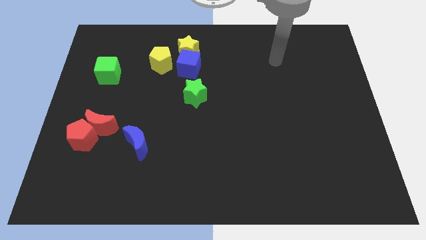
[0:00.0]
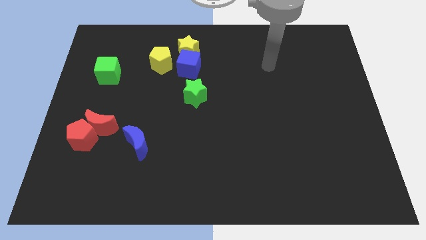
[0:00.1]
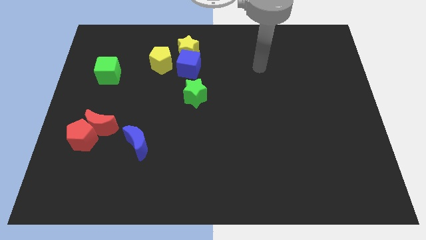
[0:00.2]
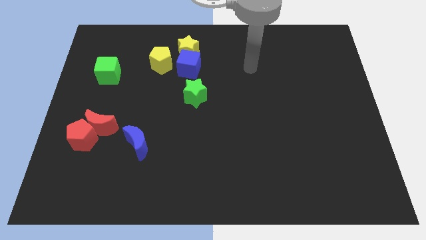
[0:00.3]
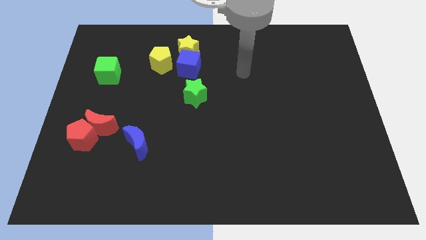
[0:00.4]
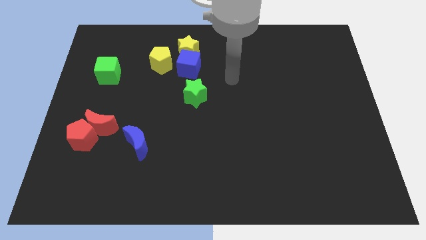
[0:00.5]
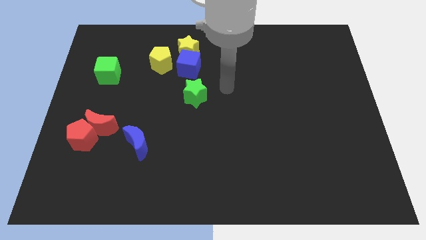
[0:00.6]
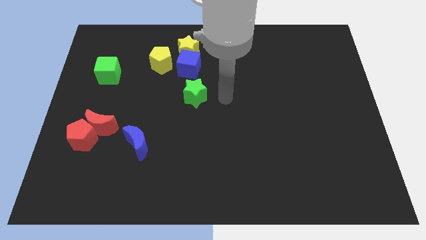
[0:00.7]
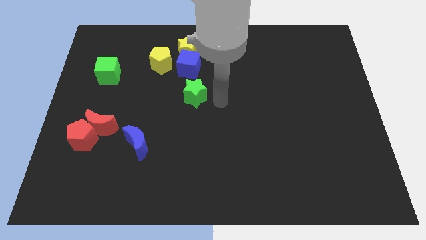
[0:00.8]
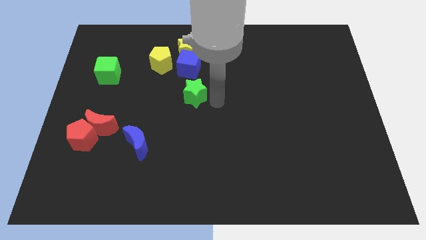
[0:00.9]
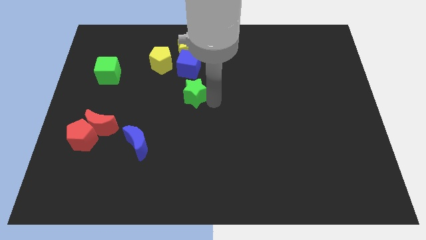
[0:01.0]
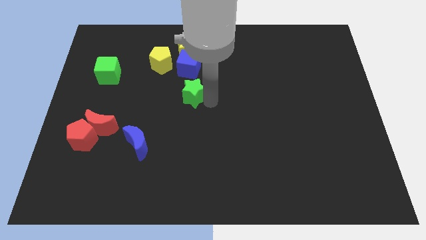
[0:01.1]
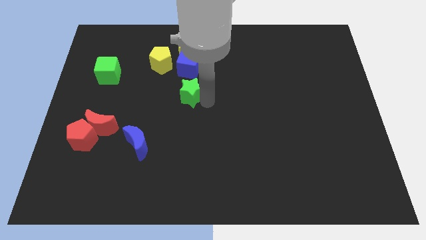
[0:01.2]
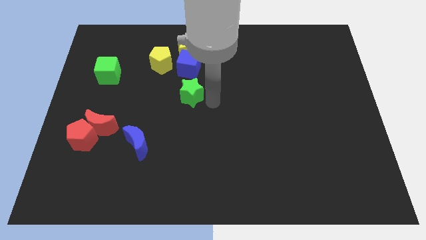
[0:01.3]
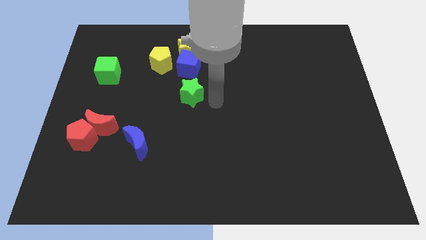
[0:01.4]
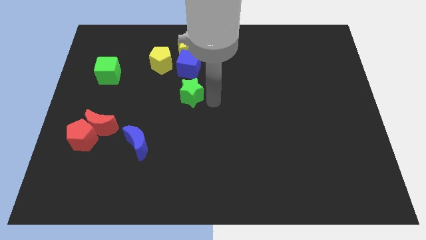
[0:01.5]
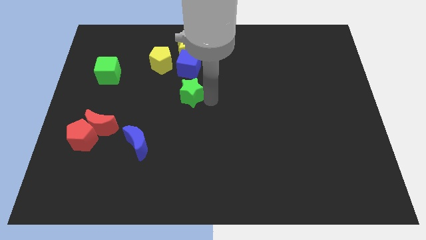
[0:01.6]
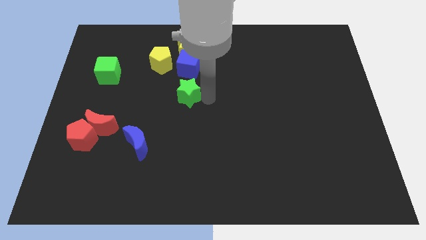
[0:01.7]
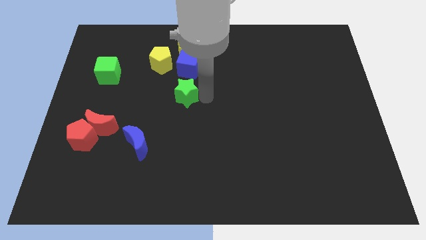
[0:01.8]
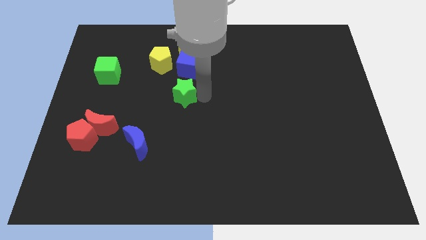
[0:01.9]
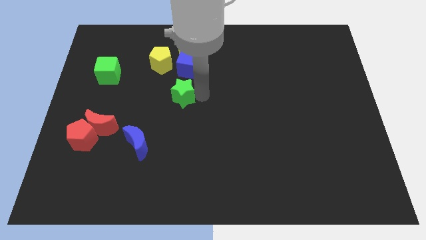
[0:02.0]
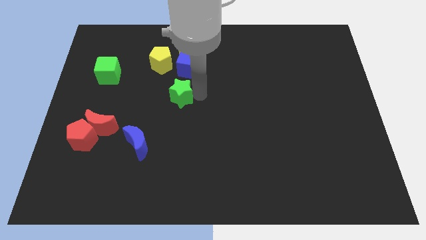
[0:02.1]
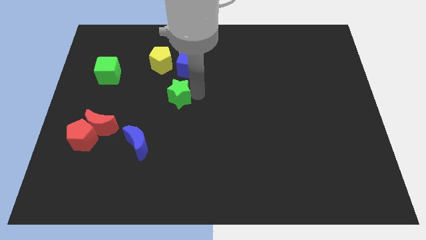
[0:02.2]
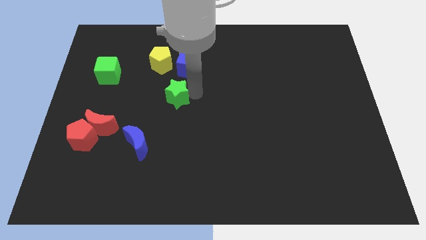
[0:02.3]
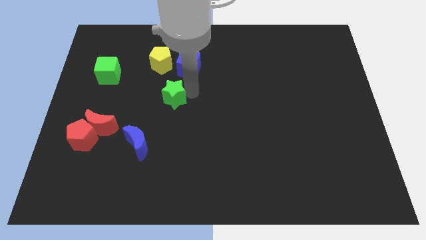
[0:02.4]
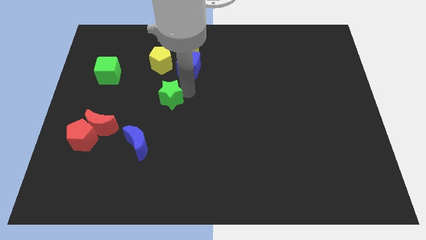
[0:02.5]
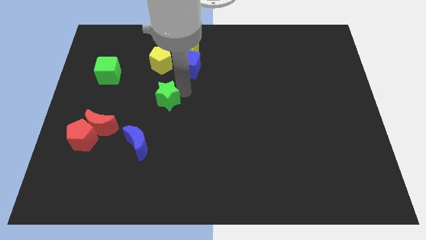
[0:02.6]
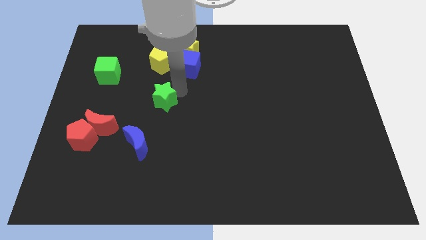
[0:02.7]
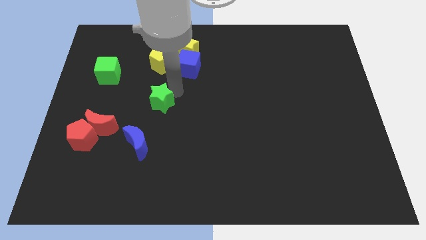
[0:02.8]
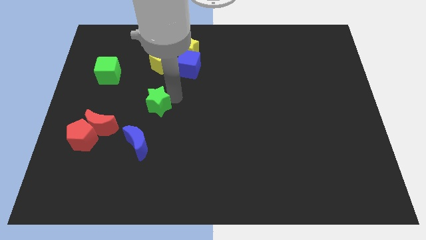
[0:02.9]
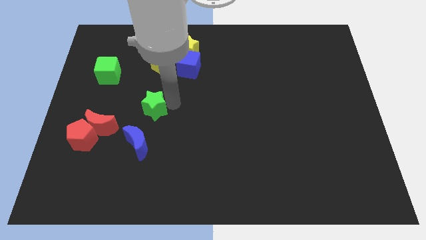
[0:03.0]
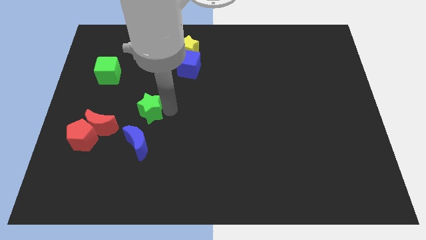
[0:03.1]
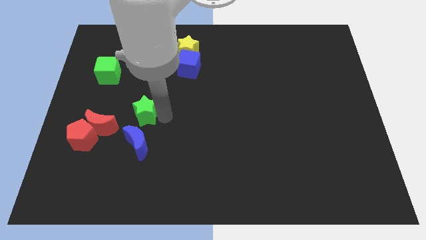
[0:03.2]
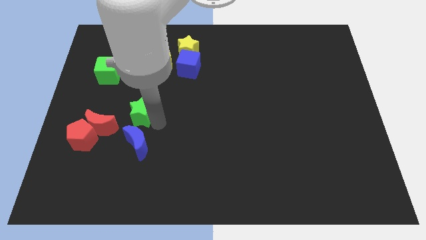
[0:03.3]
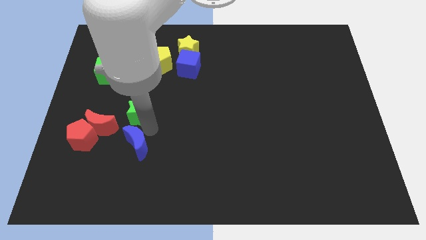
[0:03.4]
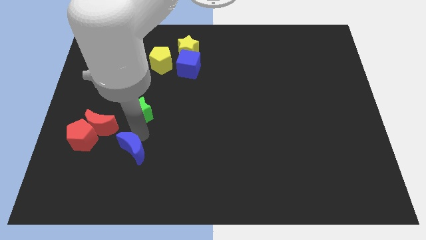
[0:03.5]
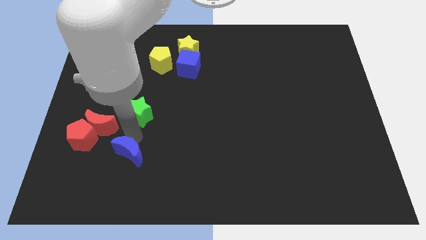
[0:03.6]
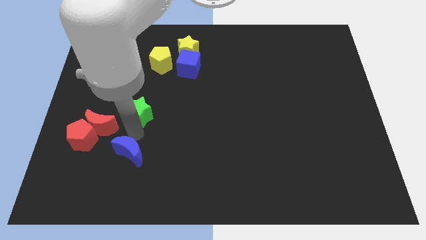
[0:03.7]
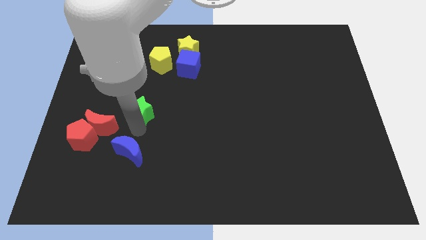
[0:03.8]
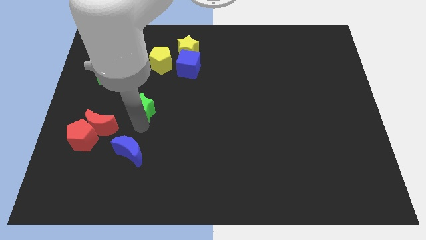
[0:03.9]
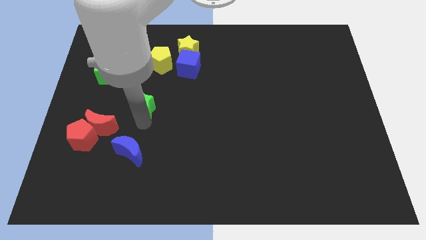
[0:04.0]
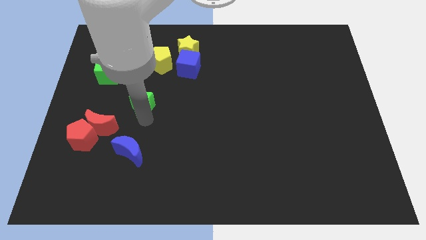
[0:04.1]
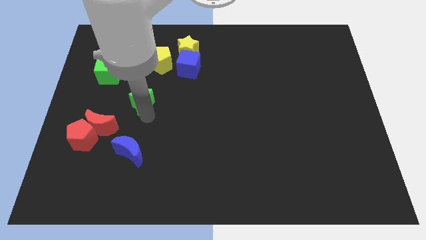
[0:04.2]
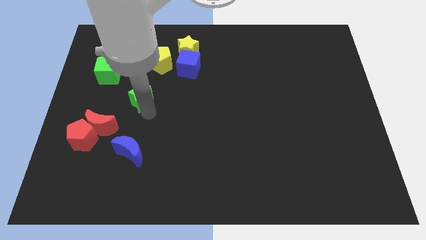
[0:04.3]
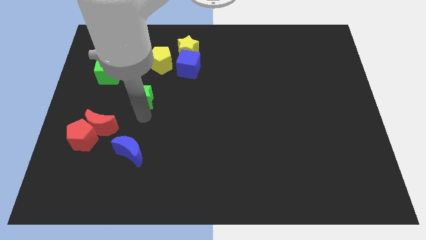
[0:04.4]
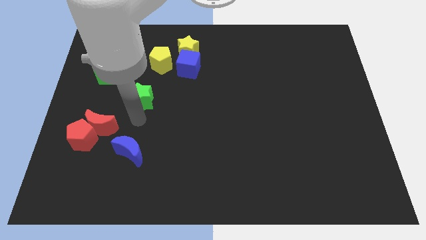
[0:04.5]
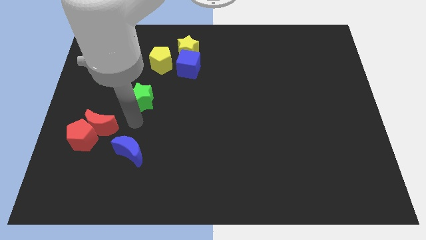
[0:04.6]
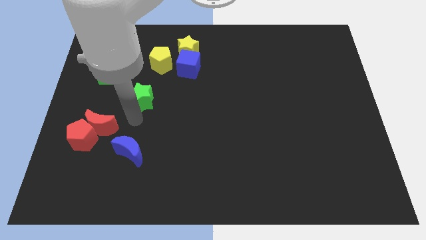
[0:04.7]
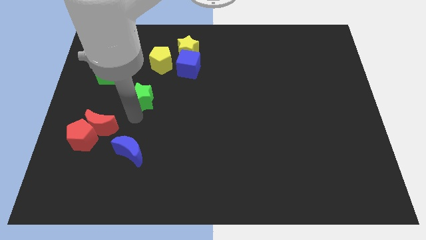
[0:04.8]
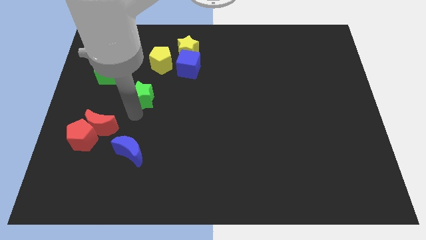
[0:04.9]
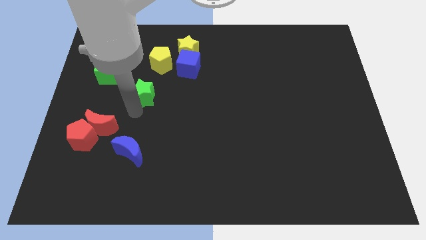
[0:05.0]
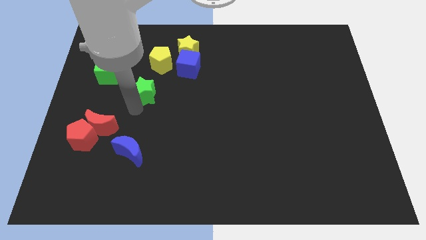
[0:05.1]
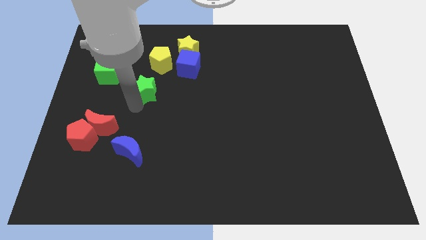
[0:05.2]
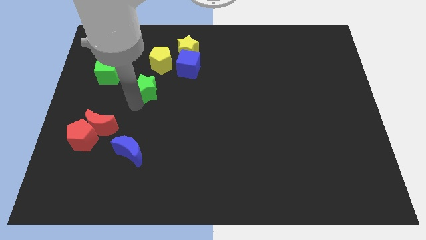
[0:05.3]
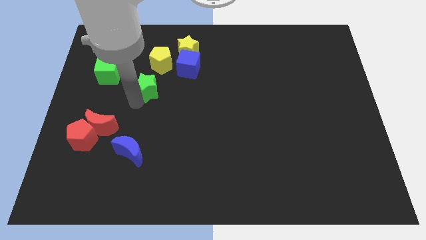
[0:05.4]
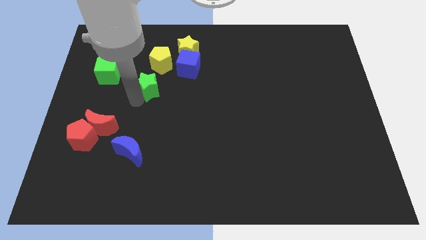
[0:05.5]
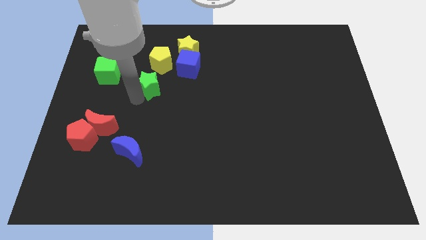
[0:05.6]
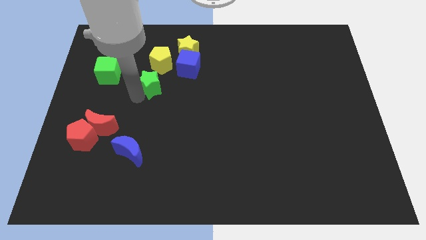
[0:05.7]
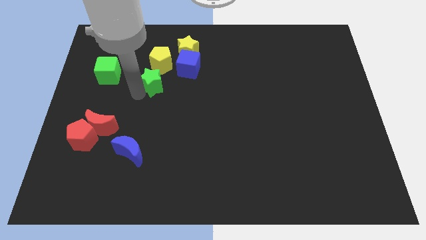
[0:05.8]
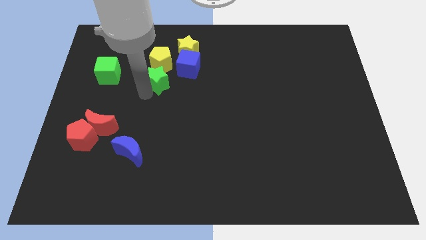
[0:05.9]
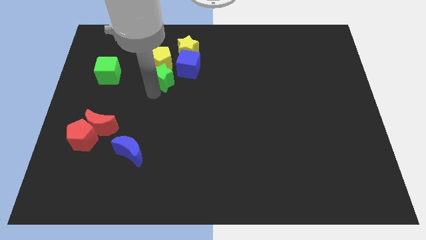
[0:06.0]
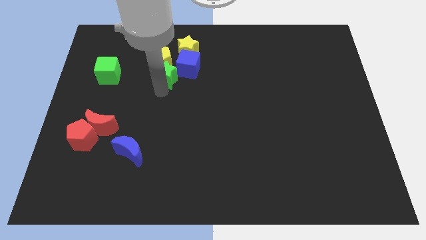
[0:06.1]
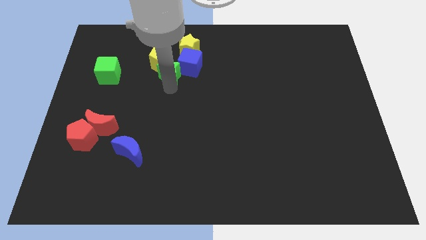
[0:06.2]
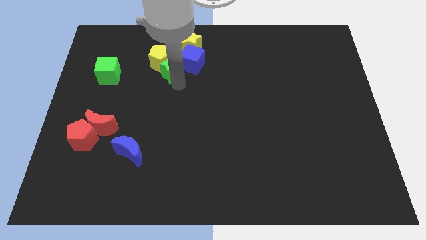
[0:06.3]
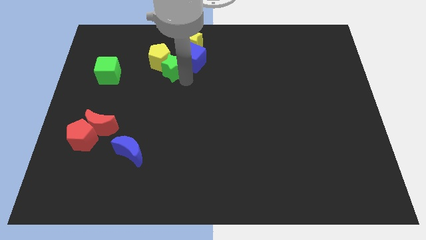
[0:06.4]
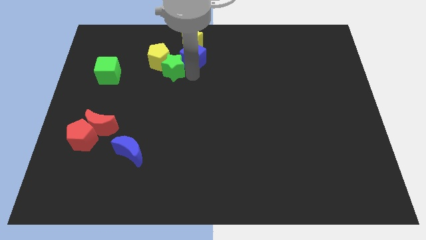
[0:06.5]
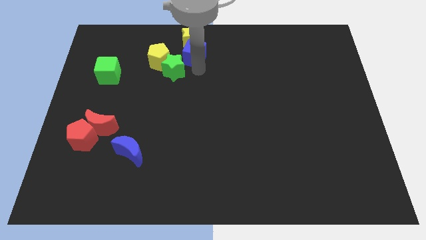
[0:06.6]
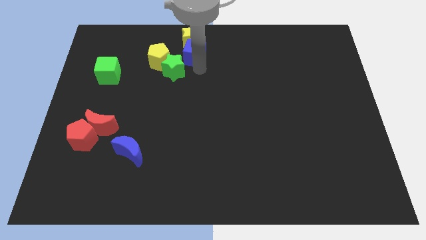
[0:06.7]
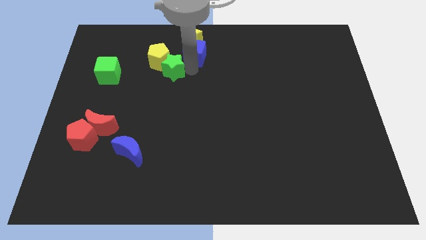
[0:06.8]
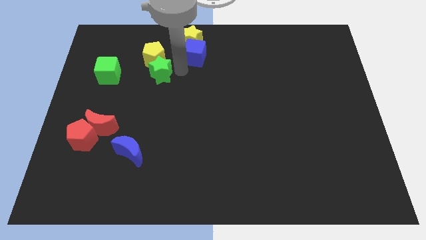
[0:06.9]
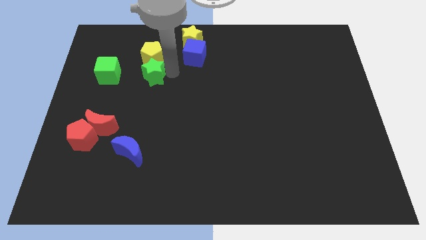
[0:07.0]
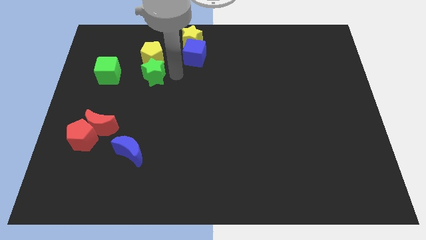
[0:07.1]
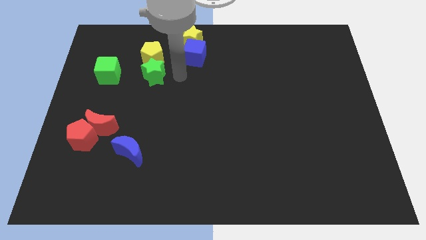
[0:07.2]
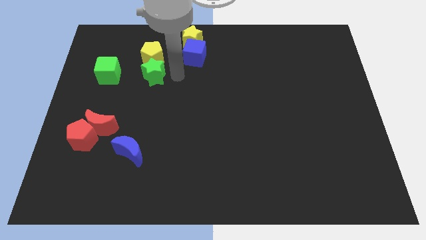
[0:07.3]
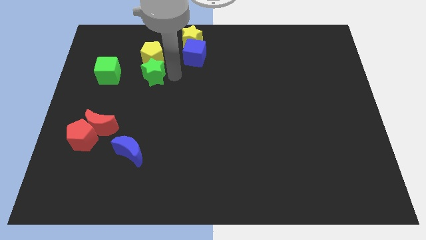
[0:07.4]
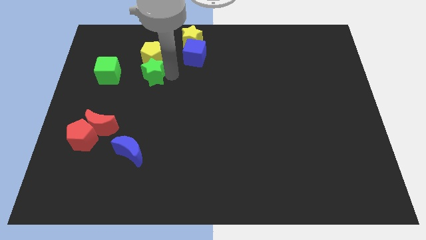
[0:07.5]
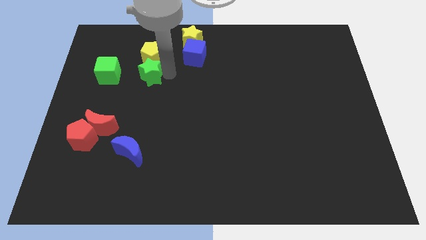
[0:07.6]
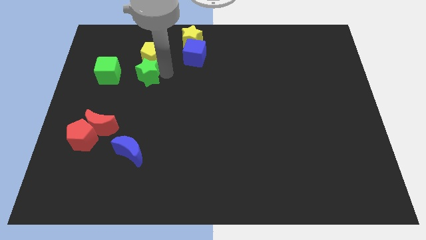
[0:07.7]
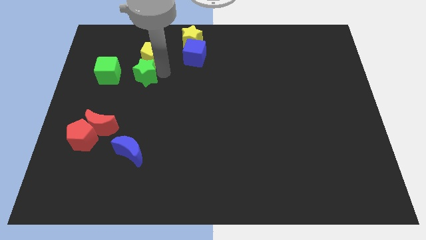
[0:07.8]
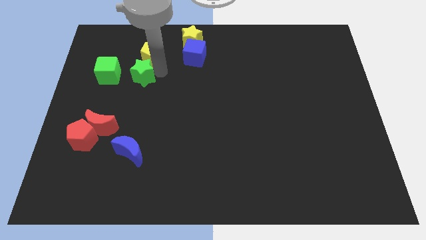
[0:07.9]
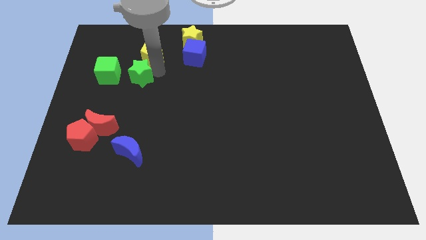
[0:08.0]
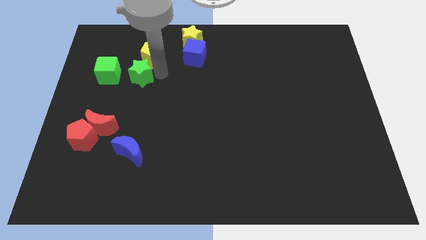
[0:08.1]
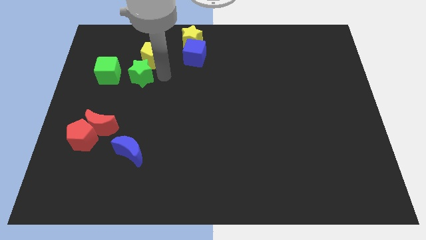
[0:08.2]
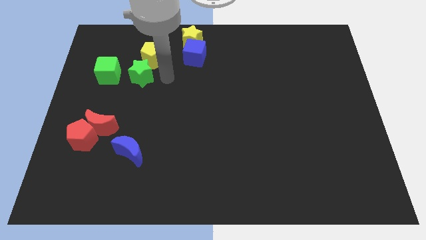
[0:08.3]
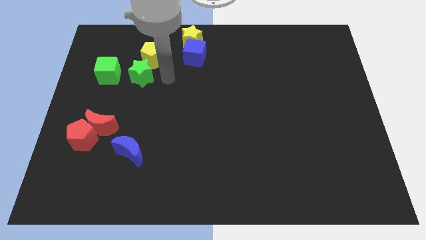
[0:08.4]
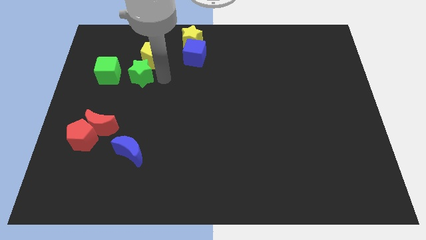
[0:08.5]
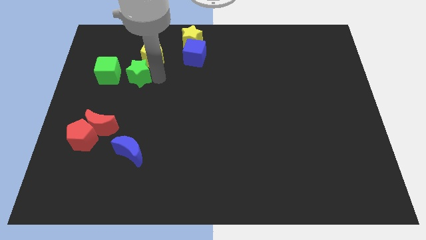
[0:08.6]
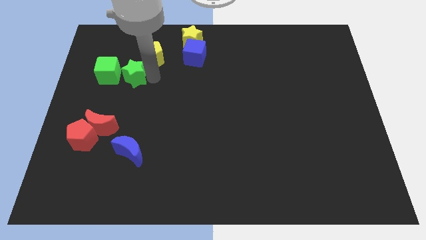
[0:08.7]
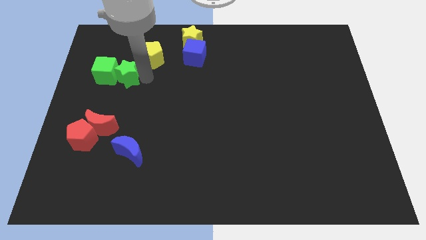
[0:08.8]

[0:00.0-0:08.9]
push the green star to the green cube
